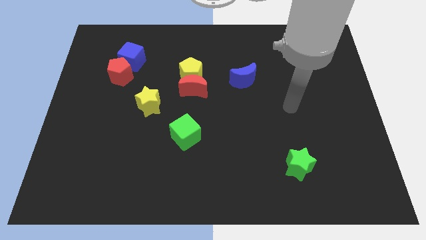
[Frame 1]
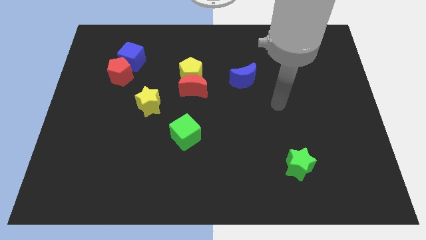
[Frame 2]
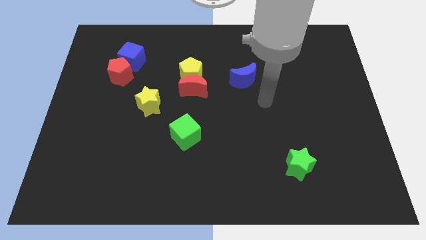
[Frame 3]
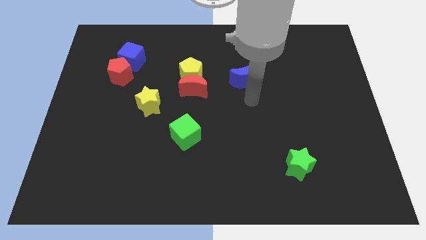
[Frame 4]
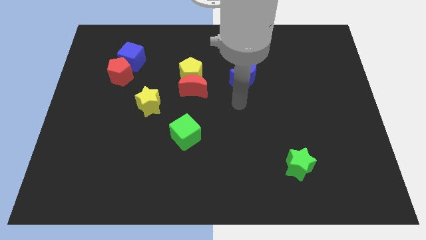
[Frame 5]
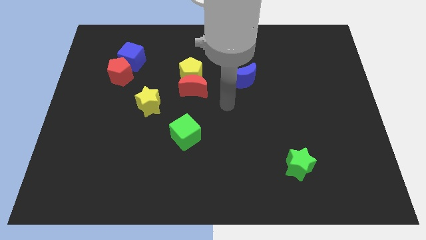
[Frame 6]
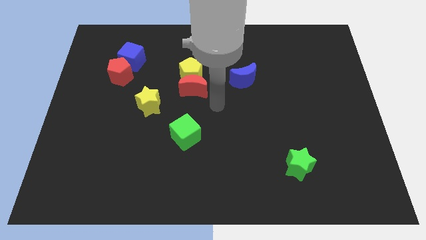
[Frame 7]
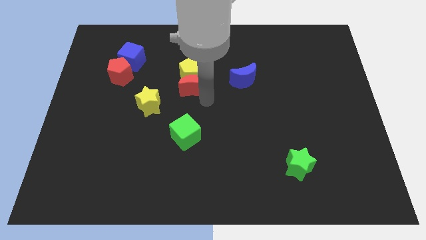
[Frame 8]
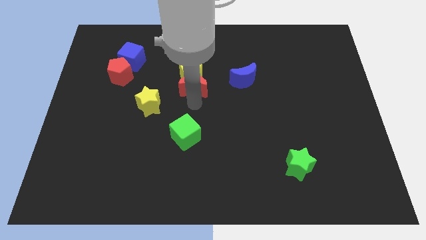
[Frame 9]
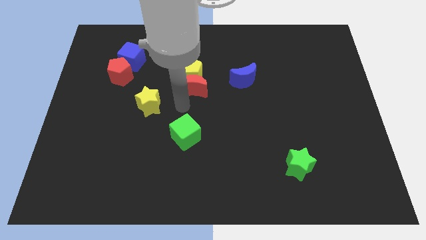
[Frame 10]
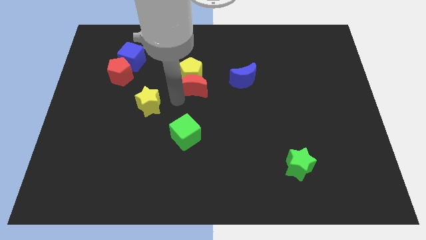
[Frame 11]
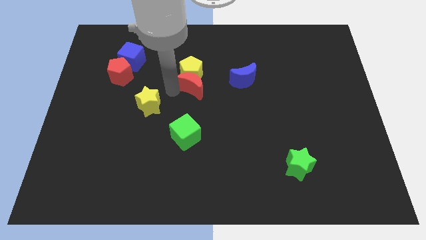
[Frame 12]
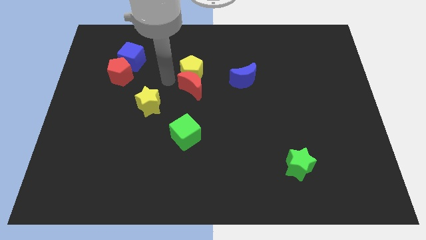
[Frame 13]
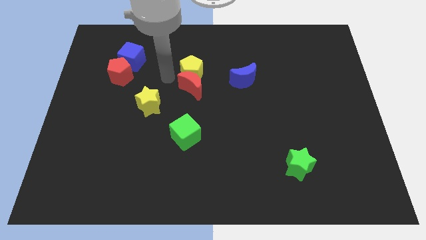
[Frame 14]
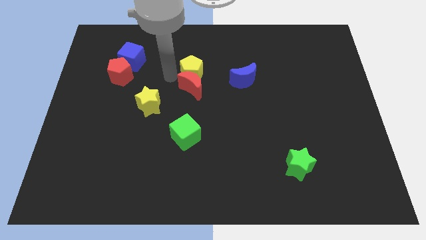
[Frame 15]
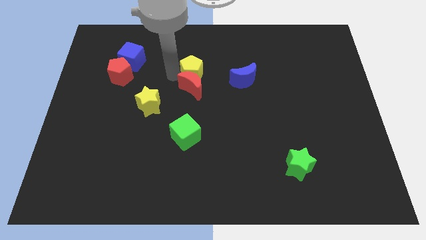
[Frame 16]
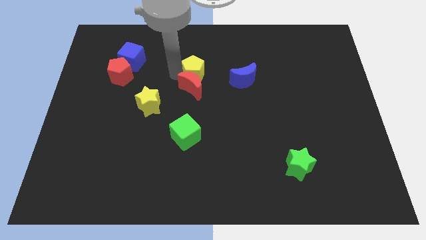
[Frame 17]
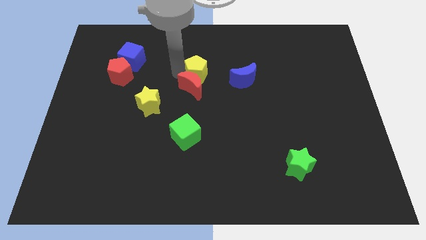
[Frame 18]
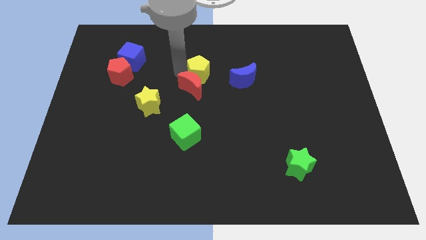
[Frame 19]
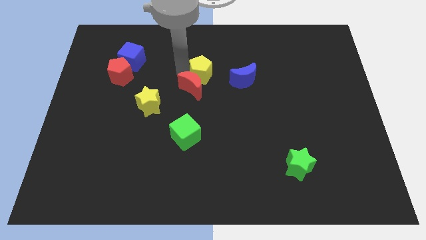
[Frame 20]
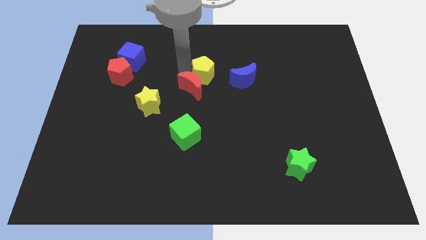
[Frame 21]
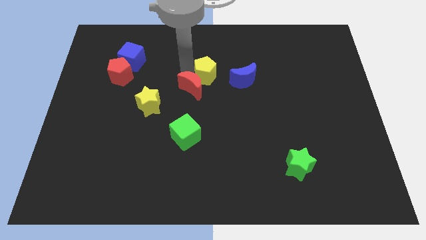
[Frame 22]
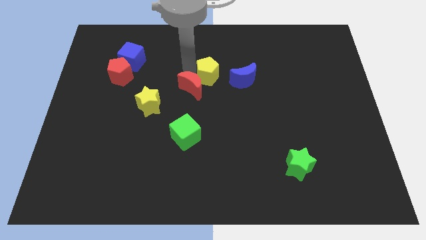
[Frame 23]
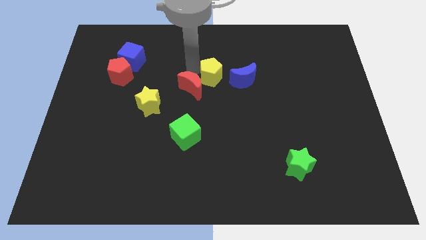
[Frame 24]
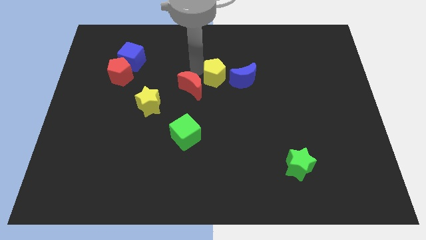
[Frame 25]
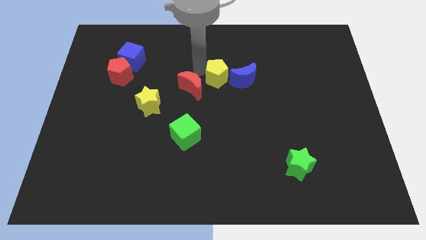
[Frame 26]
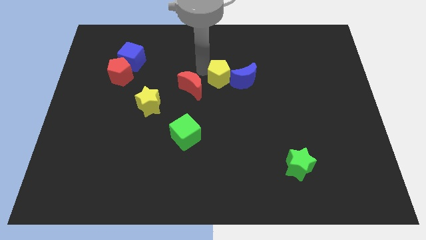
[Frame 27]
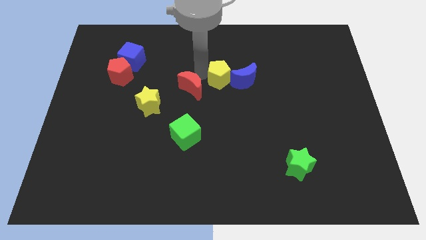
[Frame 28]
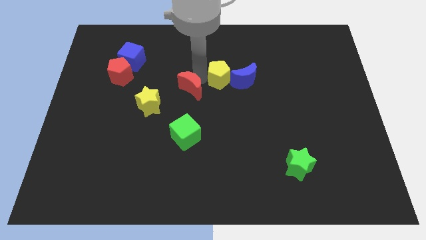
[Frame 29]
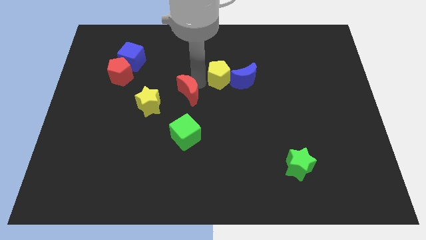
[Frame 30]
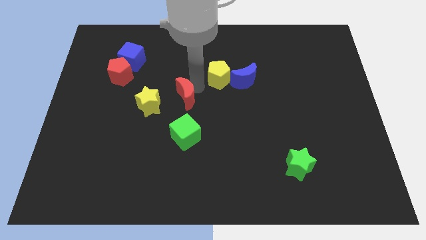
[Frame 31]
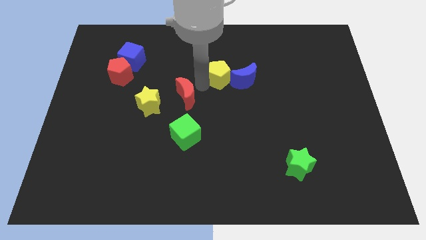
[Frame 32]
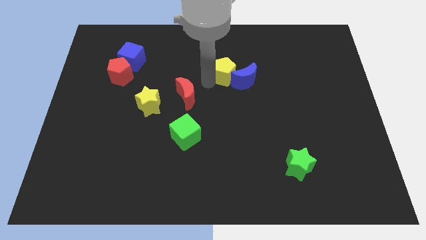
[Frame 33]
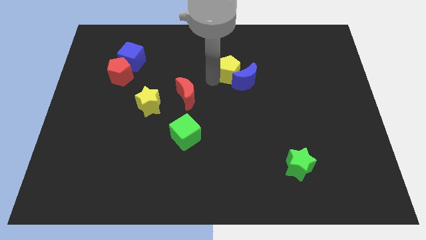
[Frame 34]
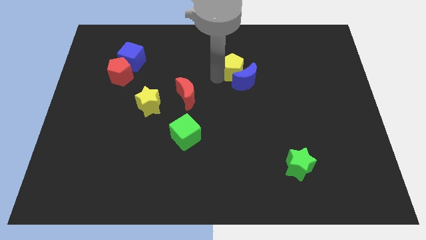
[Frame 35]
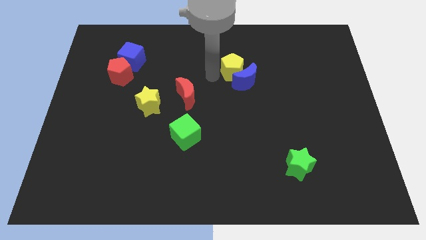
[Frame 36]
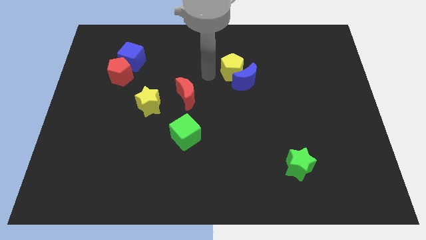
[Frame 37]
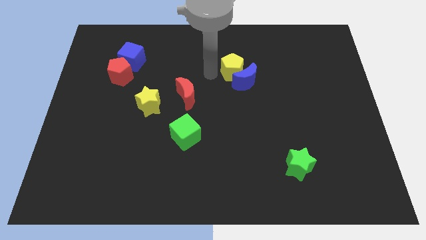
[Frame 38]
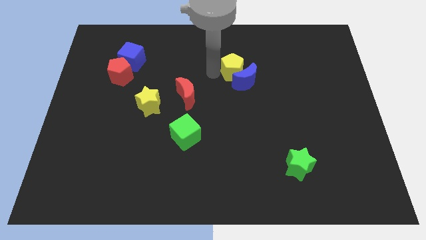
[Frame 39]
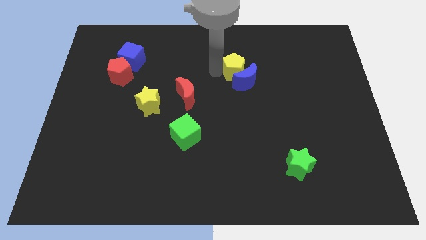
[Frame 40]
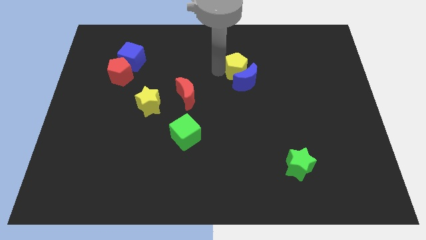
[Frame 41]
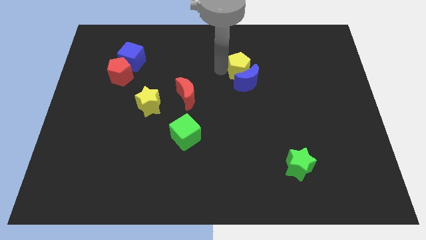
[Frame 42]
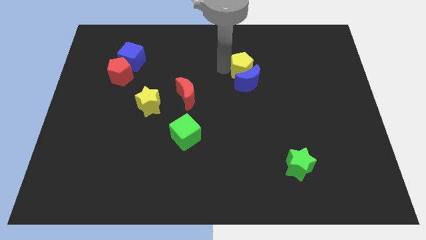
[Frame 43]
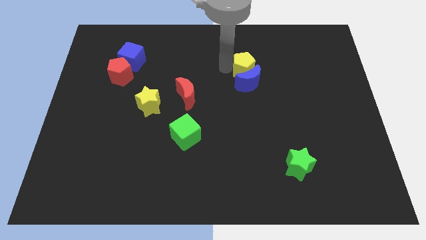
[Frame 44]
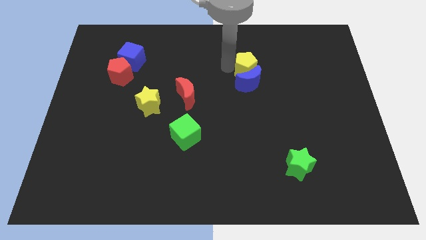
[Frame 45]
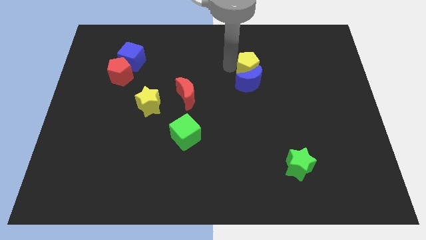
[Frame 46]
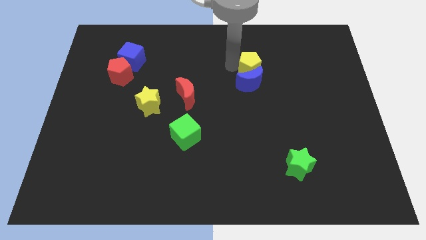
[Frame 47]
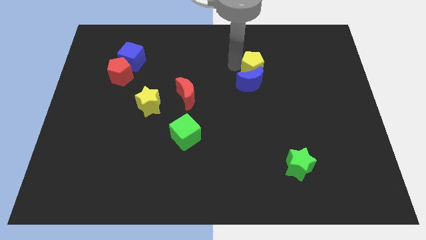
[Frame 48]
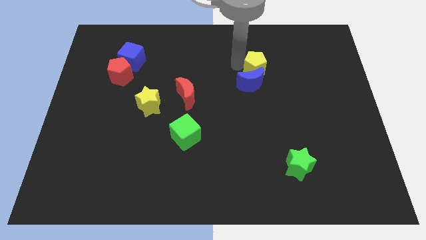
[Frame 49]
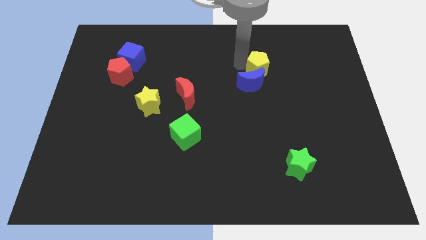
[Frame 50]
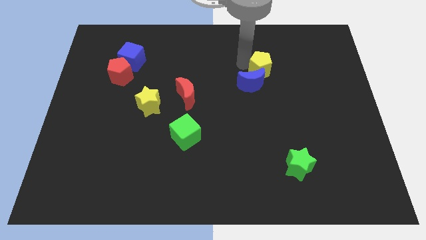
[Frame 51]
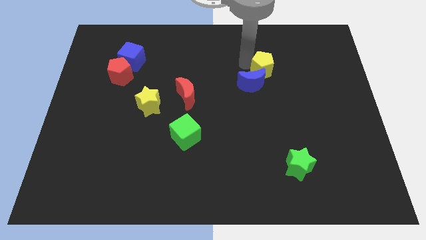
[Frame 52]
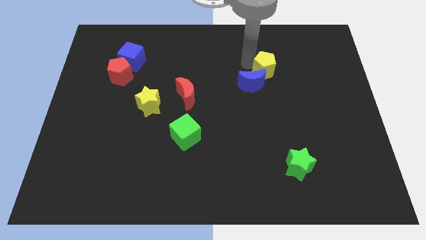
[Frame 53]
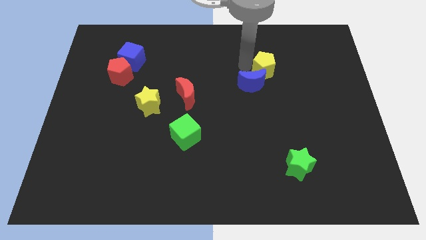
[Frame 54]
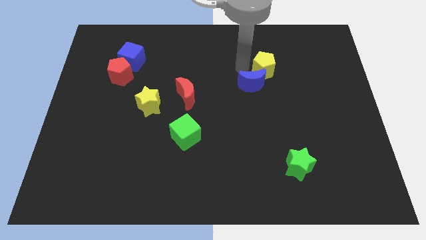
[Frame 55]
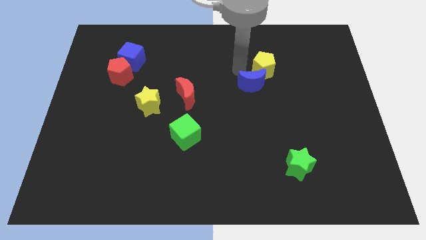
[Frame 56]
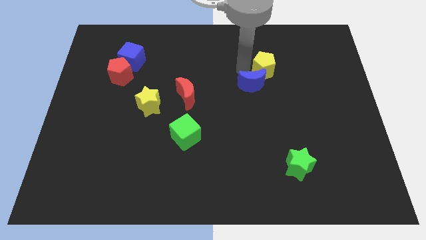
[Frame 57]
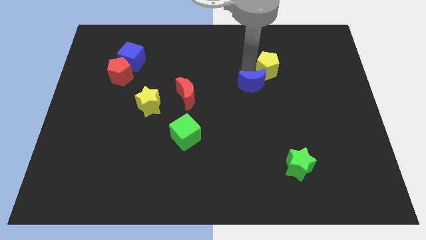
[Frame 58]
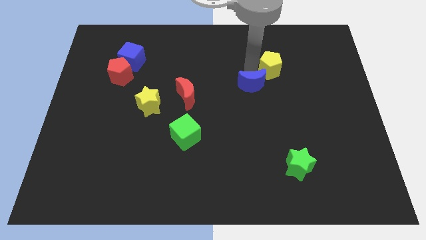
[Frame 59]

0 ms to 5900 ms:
push the yellow pentagon right

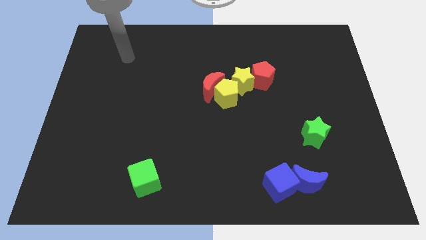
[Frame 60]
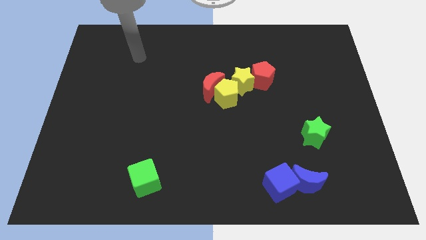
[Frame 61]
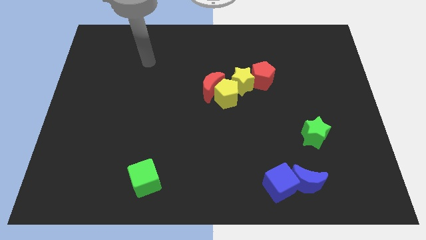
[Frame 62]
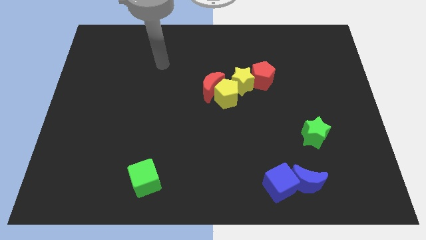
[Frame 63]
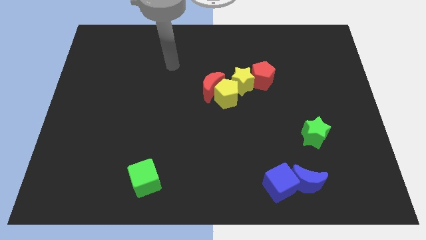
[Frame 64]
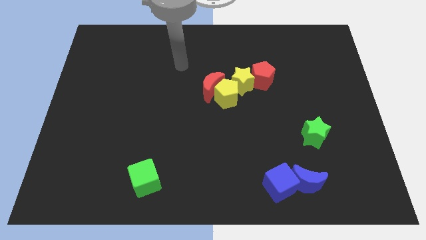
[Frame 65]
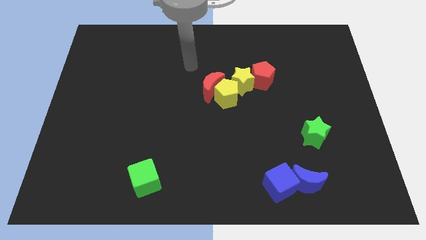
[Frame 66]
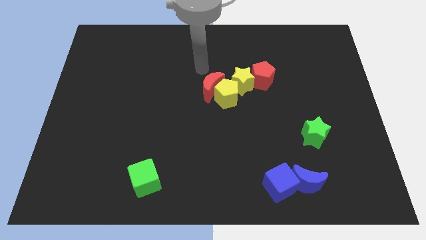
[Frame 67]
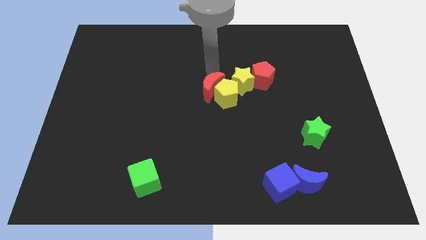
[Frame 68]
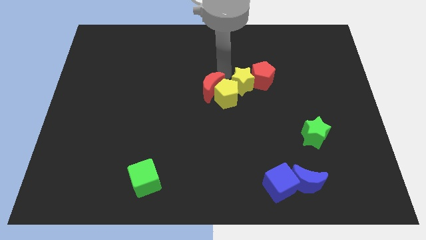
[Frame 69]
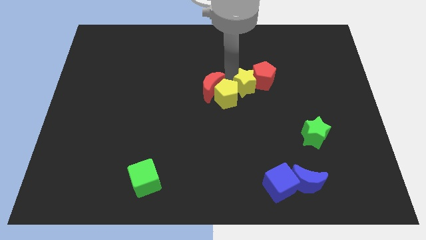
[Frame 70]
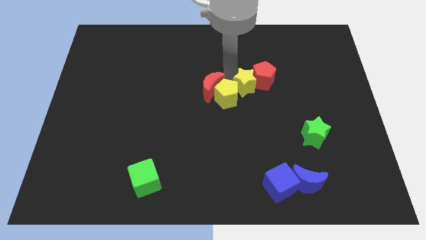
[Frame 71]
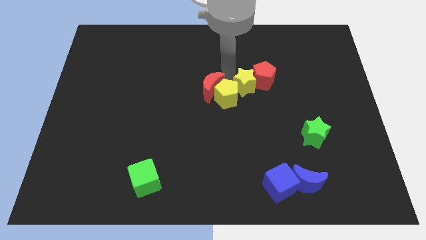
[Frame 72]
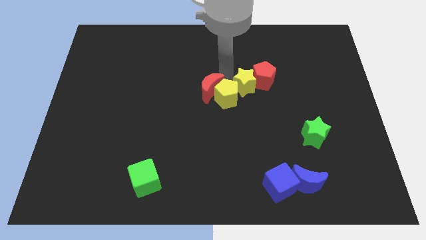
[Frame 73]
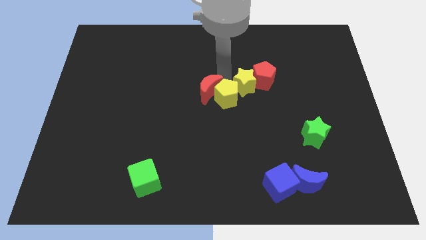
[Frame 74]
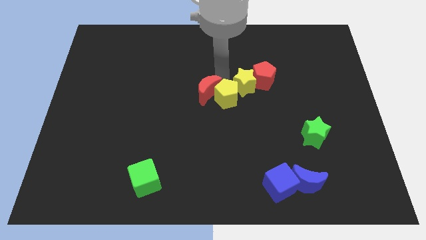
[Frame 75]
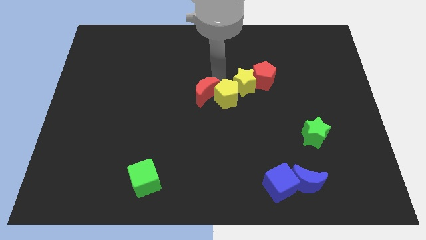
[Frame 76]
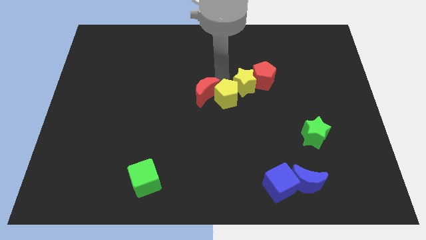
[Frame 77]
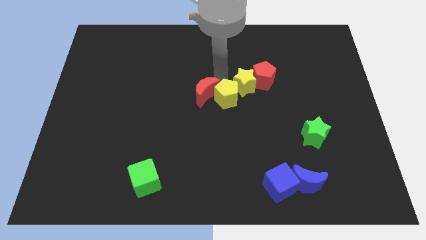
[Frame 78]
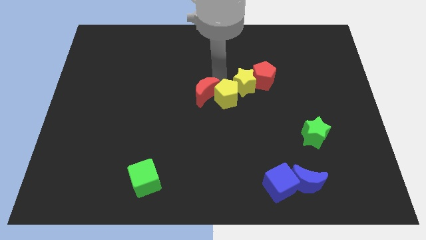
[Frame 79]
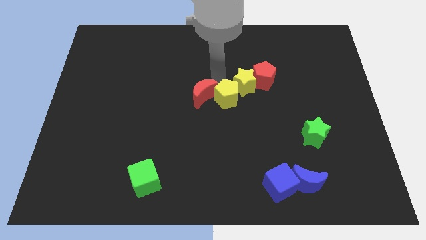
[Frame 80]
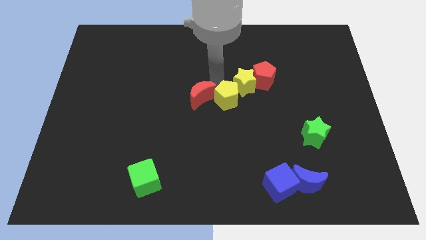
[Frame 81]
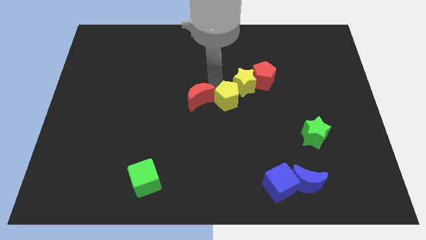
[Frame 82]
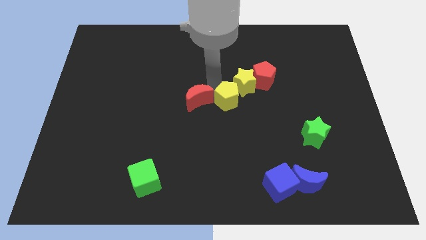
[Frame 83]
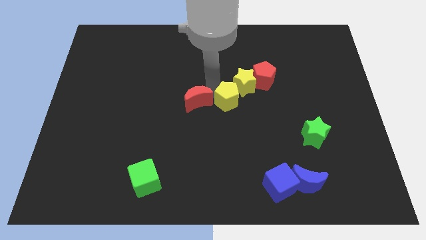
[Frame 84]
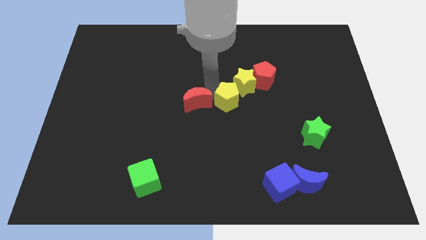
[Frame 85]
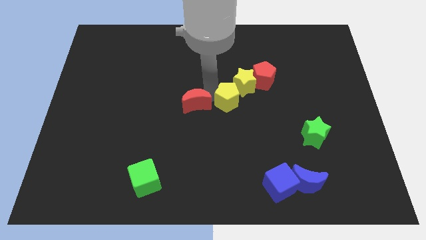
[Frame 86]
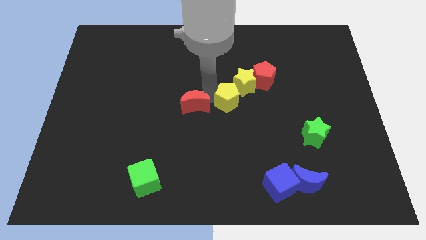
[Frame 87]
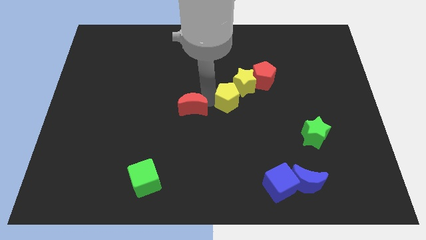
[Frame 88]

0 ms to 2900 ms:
slightly move the red moon down and left
